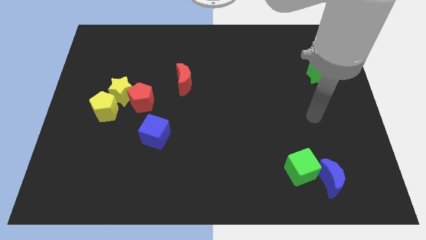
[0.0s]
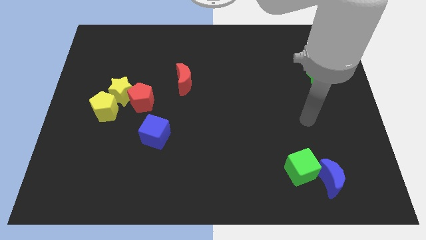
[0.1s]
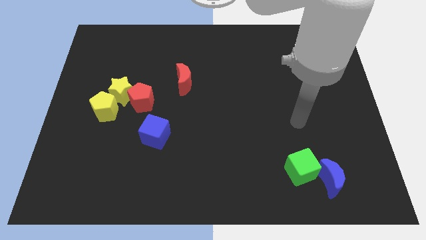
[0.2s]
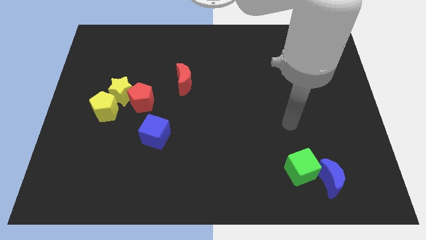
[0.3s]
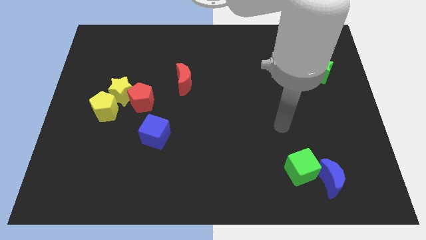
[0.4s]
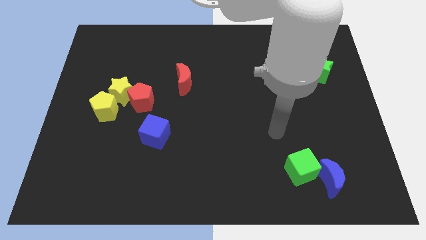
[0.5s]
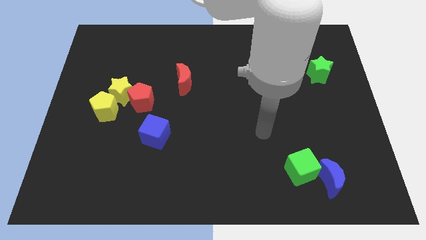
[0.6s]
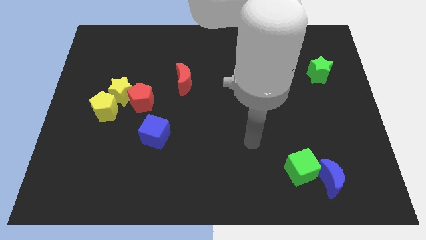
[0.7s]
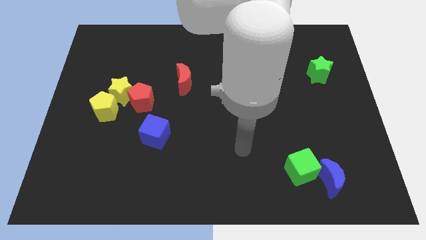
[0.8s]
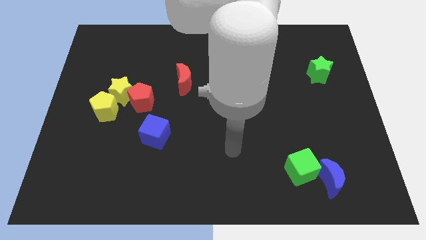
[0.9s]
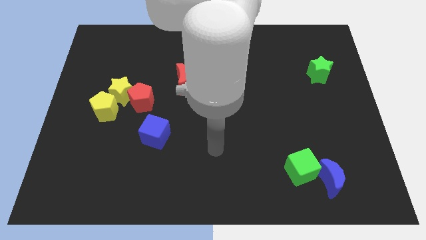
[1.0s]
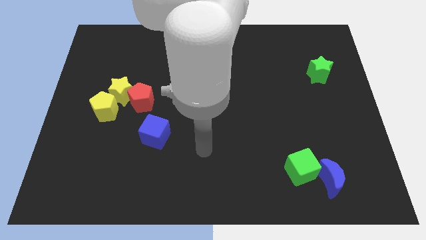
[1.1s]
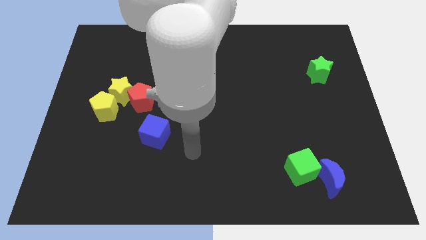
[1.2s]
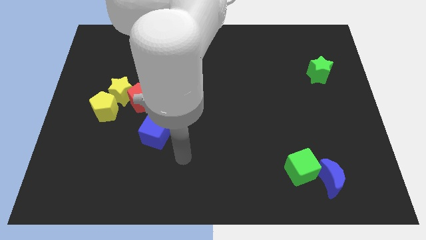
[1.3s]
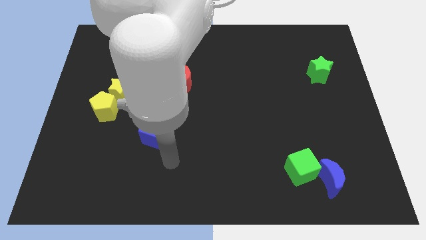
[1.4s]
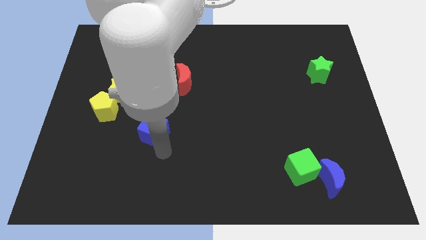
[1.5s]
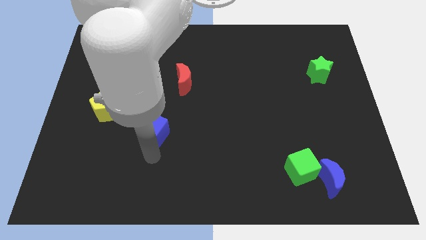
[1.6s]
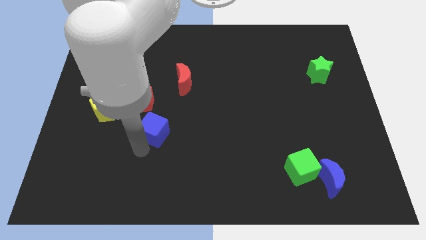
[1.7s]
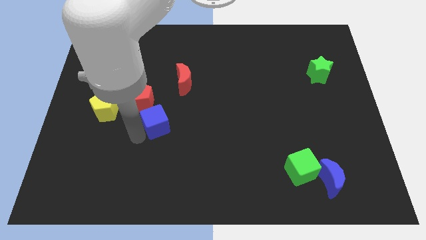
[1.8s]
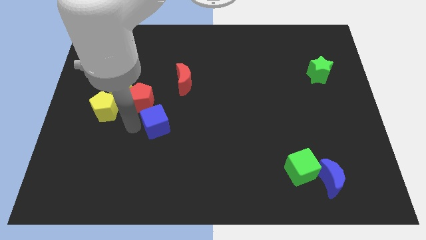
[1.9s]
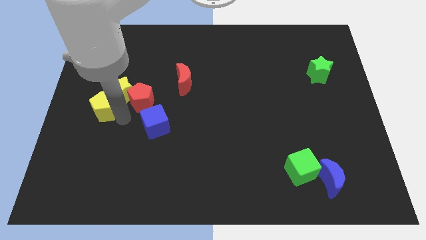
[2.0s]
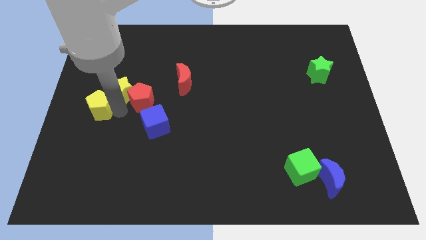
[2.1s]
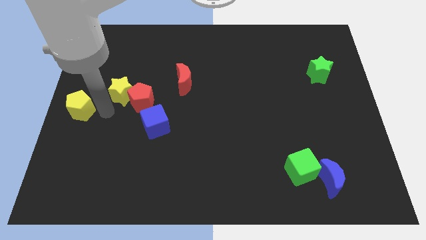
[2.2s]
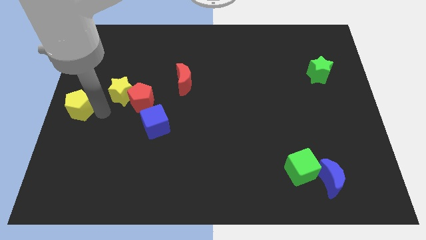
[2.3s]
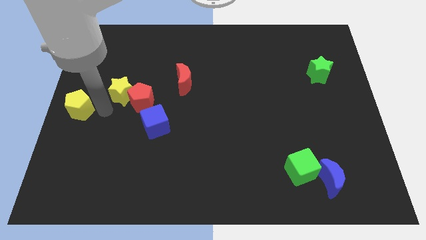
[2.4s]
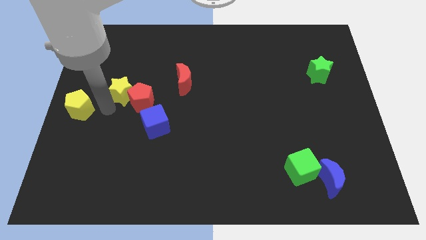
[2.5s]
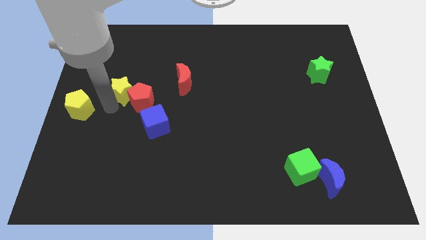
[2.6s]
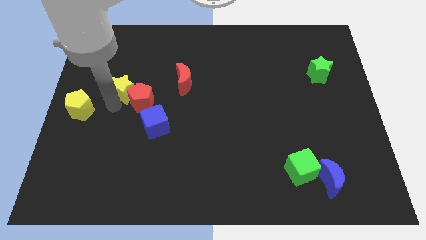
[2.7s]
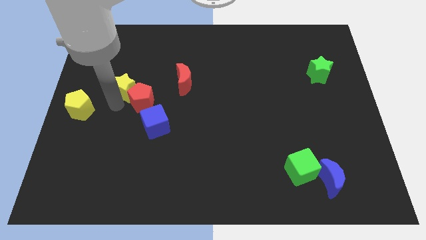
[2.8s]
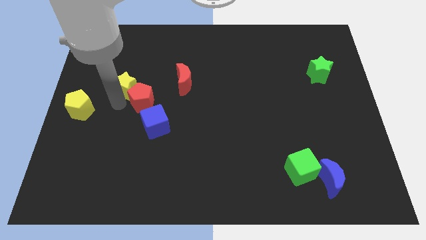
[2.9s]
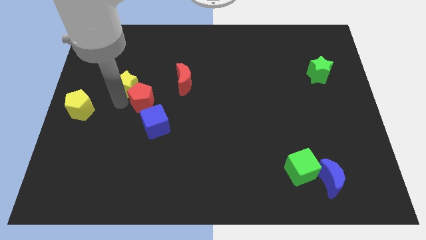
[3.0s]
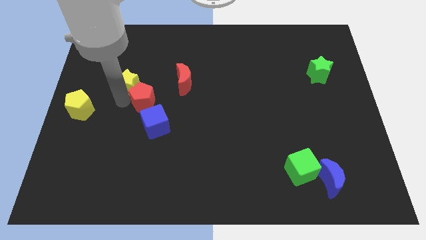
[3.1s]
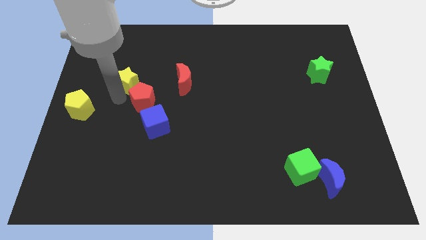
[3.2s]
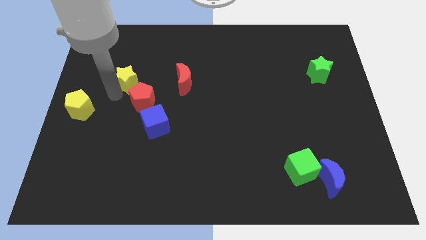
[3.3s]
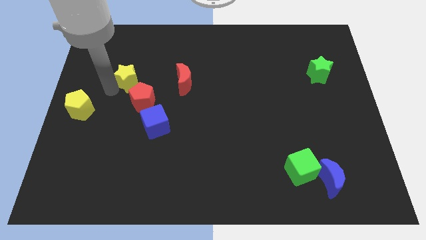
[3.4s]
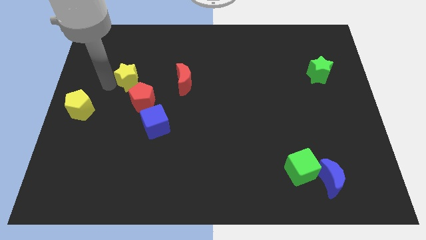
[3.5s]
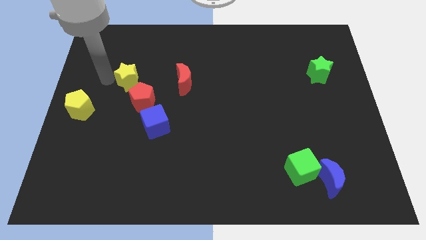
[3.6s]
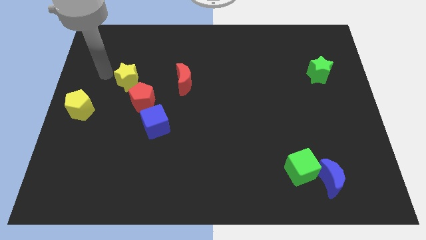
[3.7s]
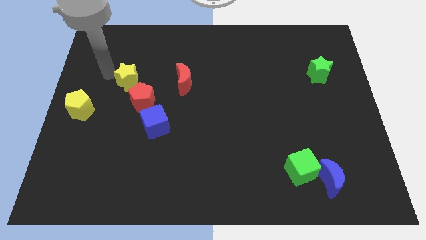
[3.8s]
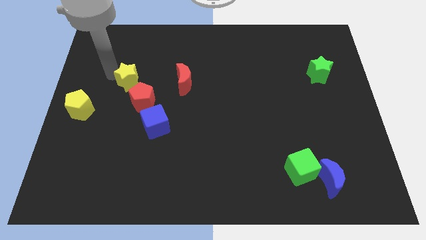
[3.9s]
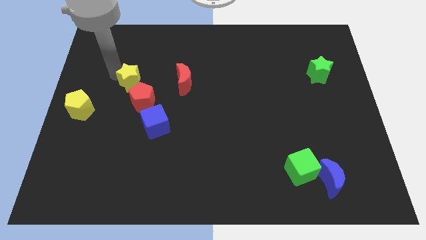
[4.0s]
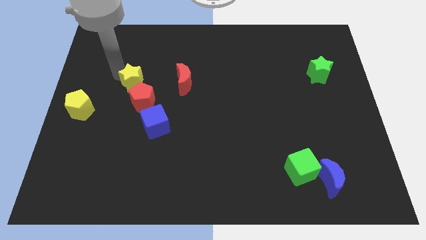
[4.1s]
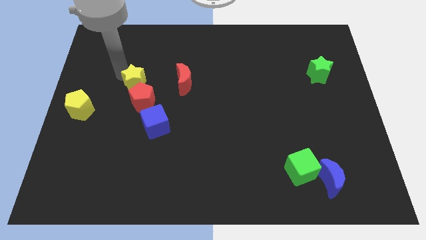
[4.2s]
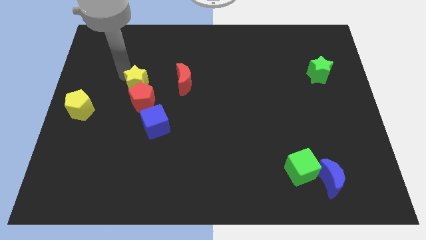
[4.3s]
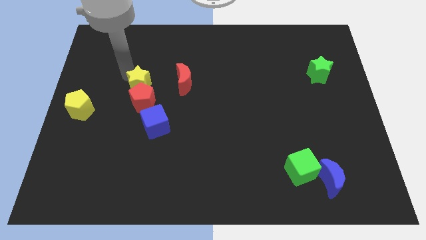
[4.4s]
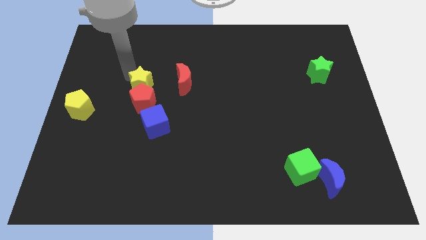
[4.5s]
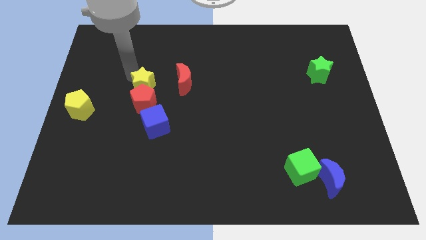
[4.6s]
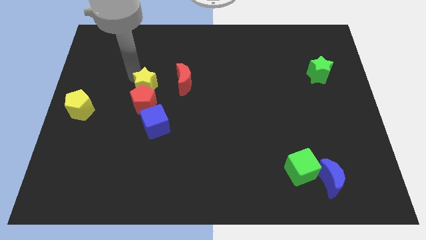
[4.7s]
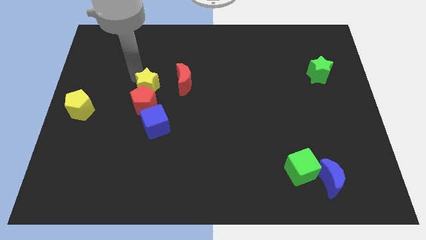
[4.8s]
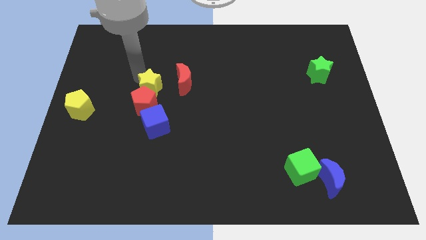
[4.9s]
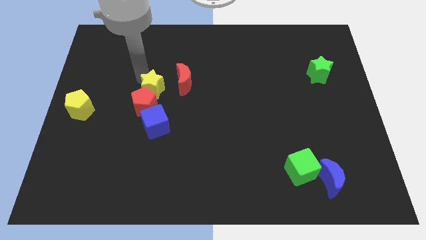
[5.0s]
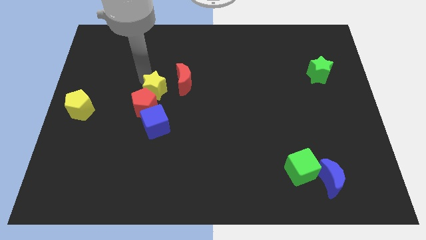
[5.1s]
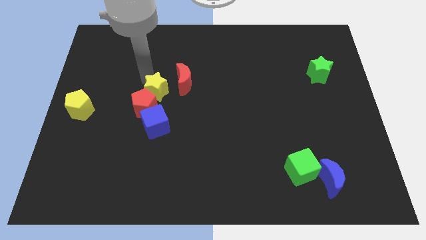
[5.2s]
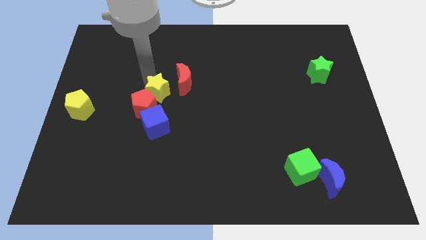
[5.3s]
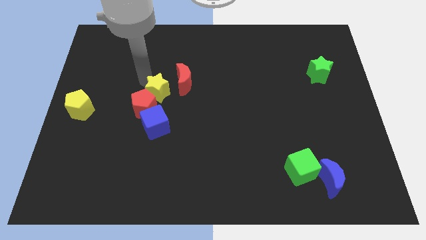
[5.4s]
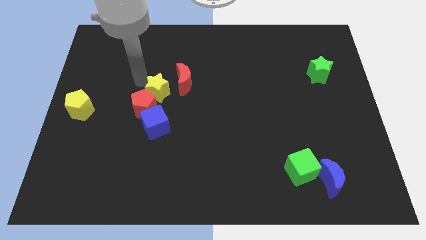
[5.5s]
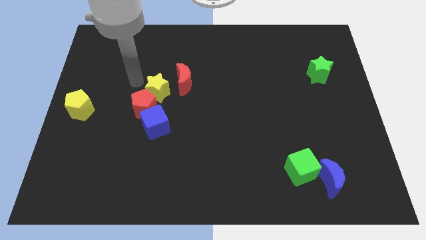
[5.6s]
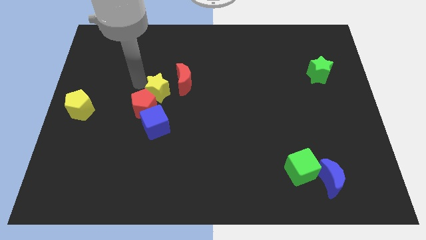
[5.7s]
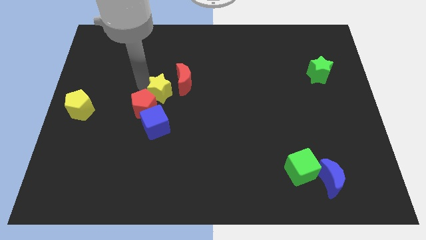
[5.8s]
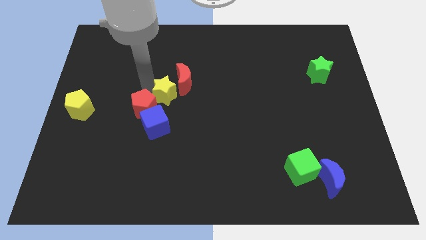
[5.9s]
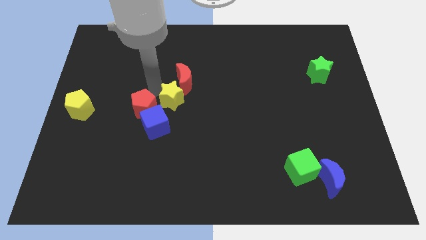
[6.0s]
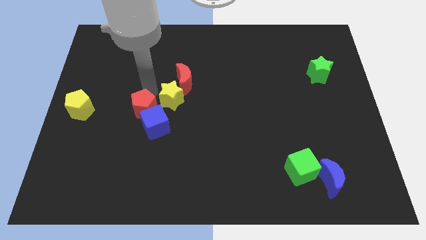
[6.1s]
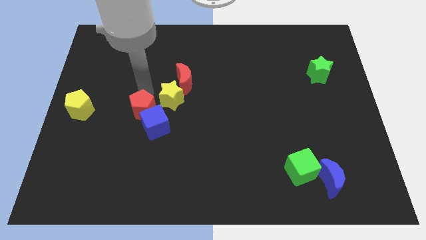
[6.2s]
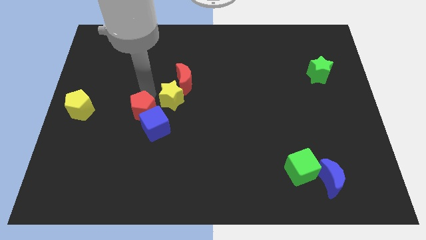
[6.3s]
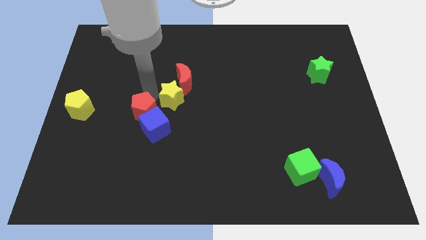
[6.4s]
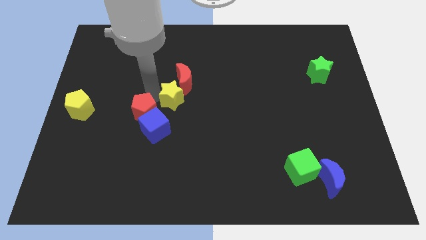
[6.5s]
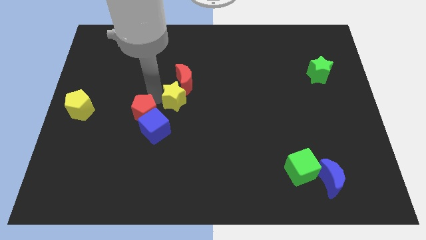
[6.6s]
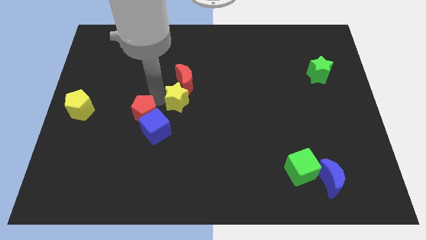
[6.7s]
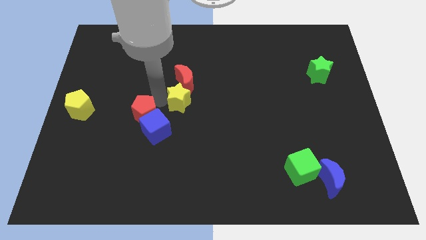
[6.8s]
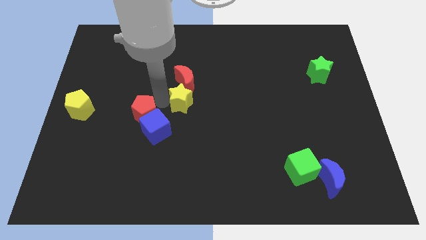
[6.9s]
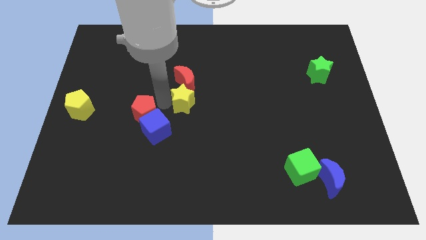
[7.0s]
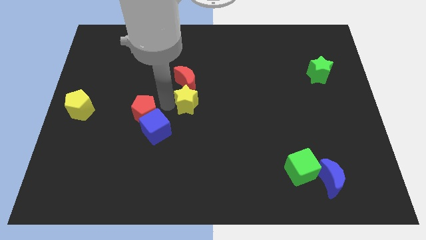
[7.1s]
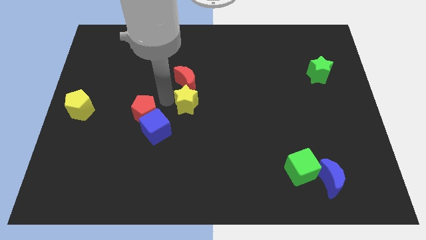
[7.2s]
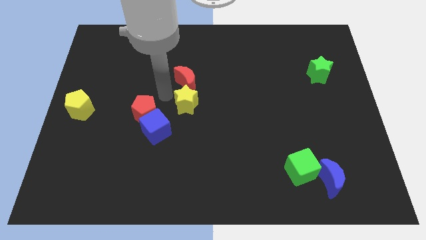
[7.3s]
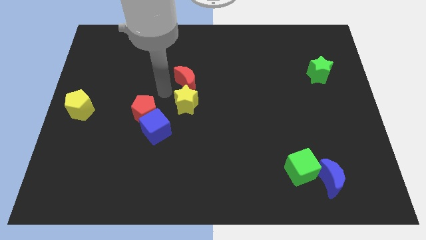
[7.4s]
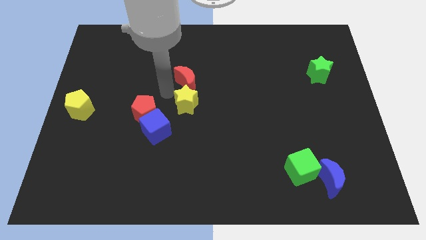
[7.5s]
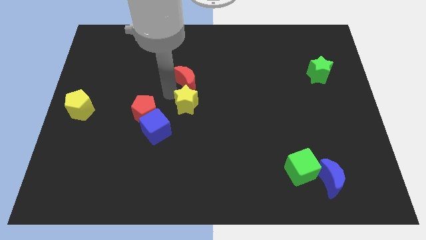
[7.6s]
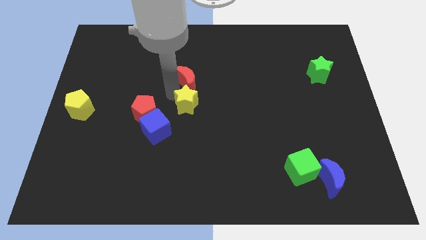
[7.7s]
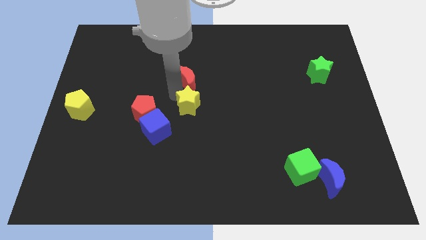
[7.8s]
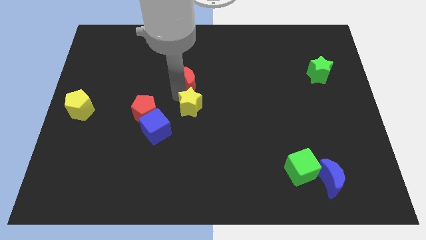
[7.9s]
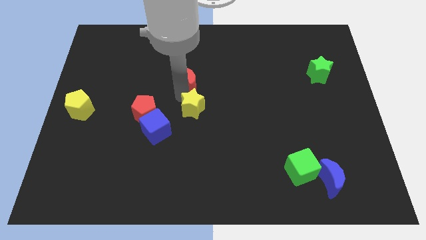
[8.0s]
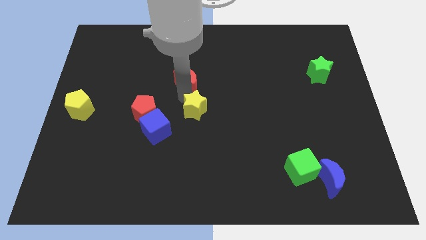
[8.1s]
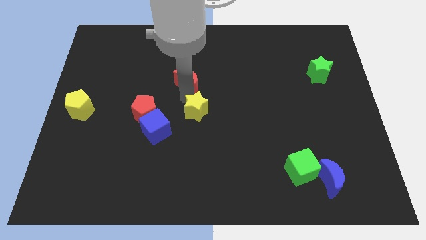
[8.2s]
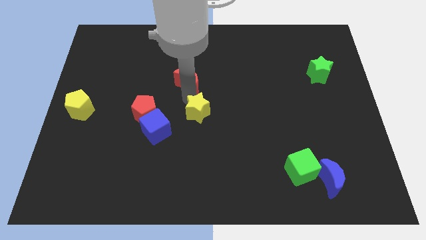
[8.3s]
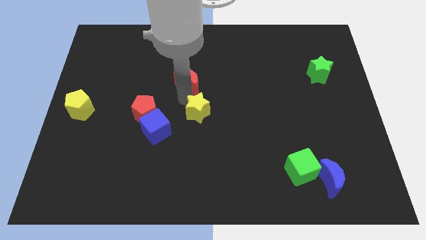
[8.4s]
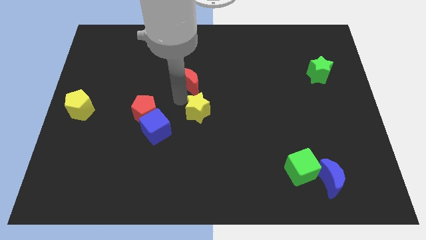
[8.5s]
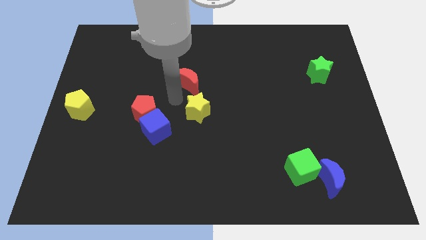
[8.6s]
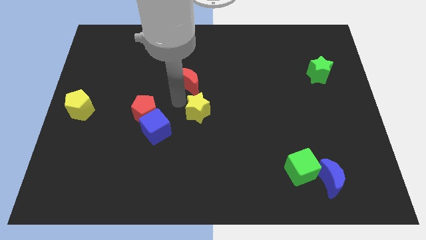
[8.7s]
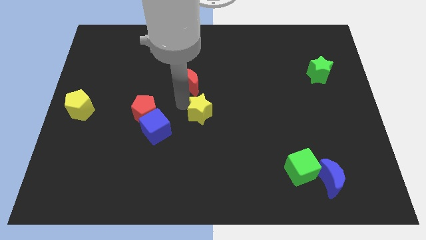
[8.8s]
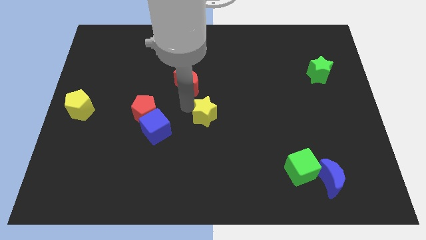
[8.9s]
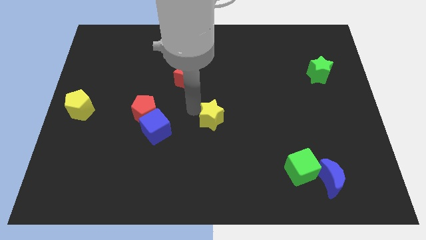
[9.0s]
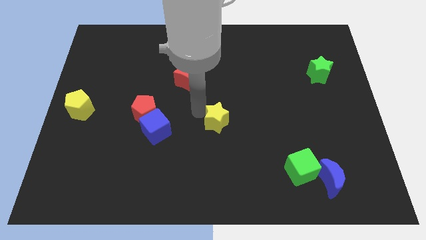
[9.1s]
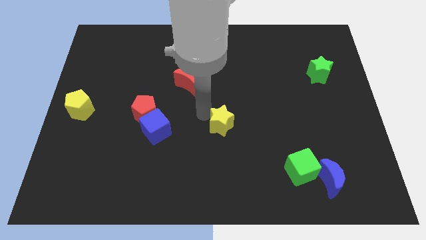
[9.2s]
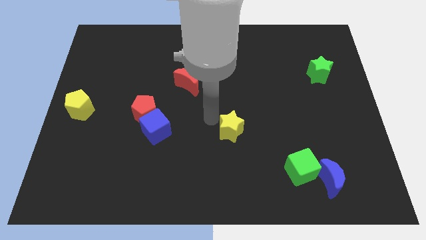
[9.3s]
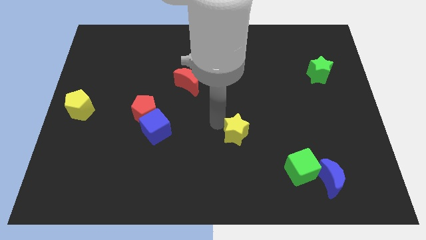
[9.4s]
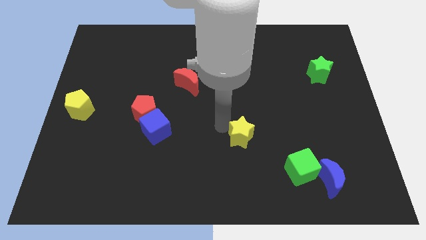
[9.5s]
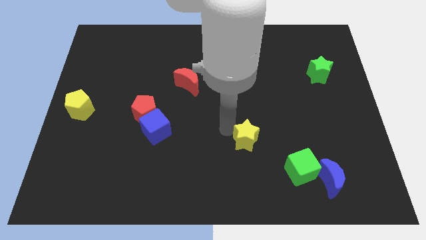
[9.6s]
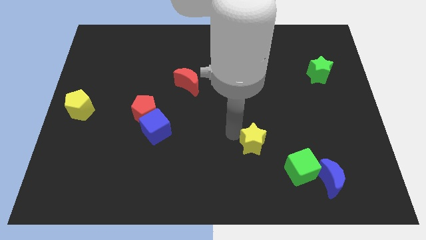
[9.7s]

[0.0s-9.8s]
put the yellow star to the top left side of the green cube
